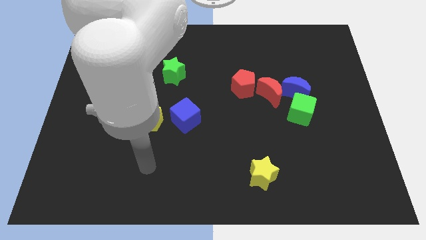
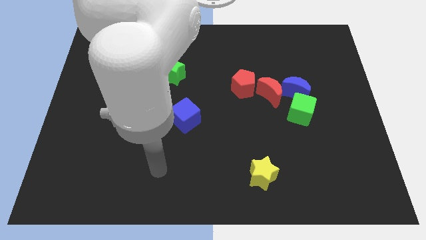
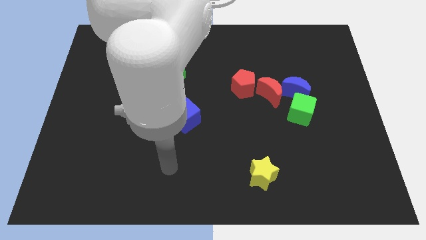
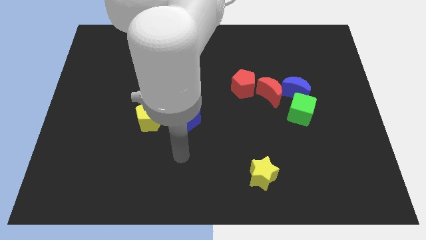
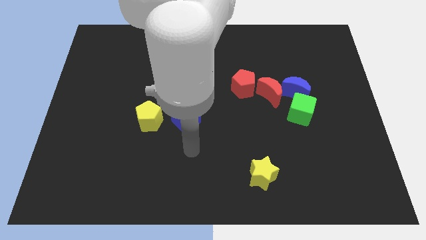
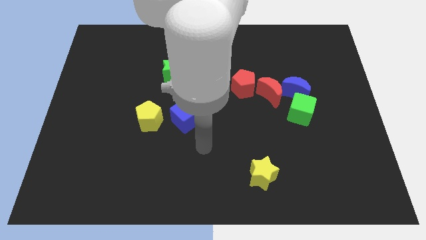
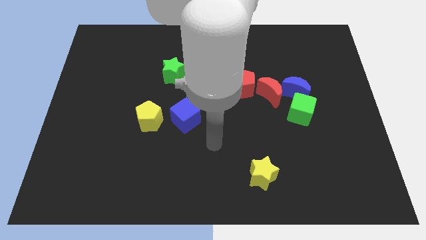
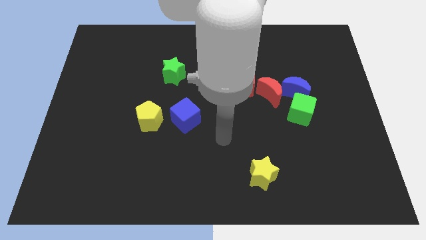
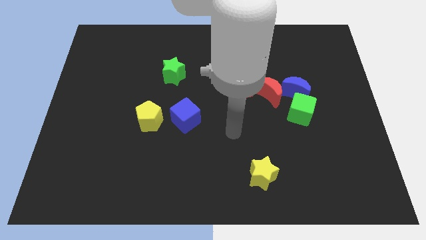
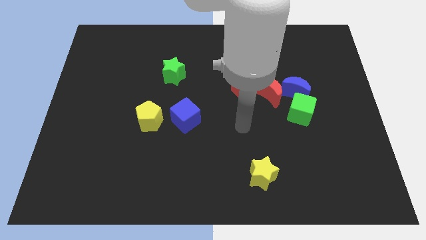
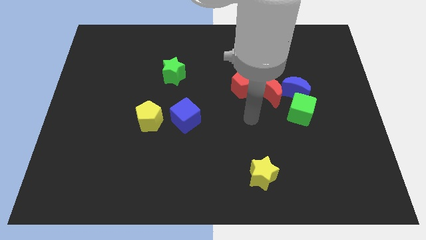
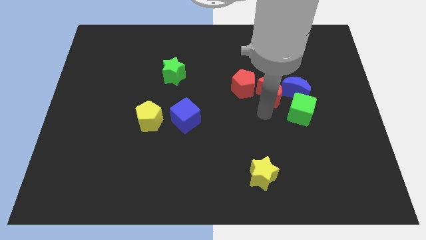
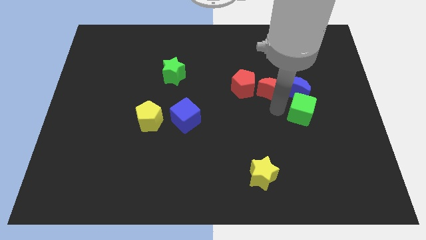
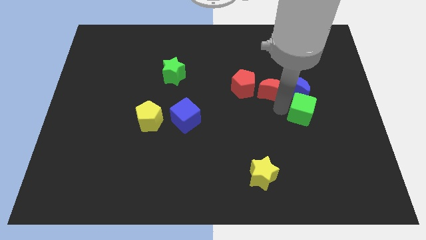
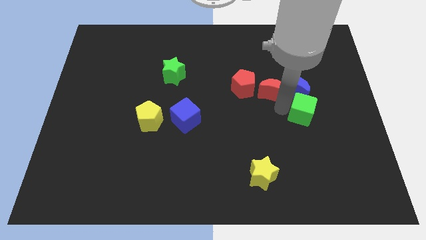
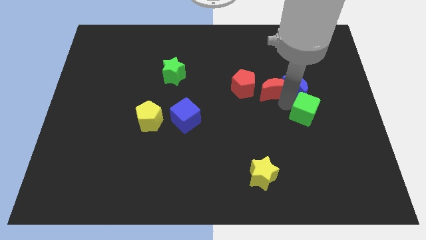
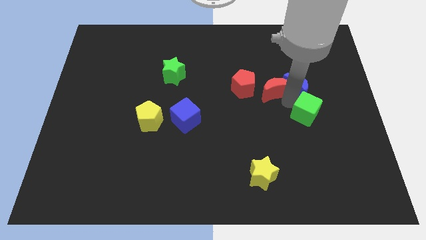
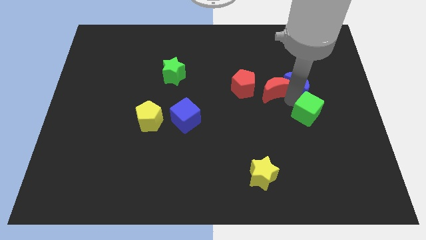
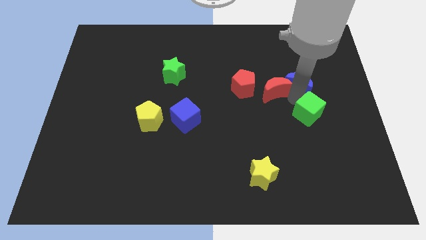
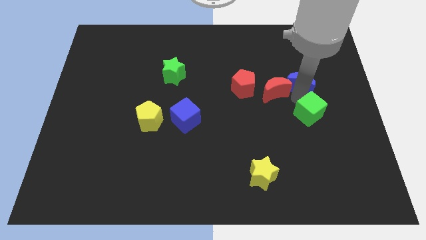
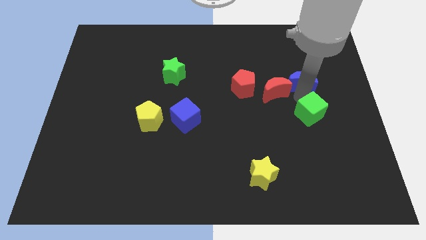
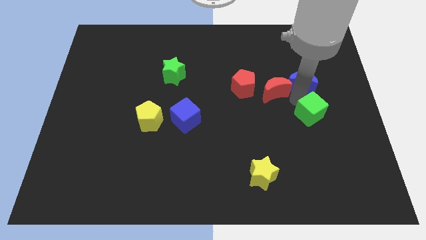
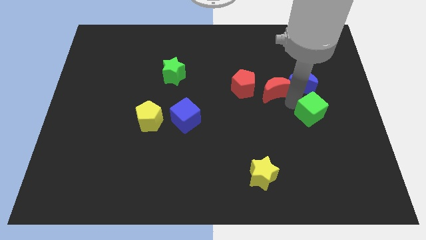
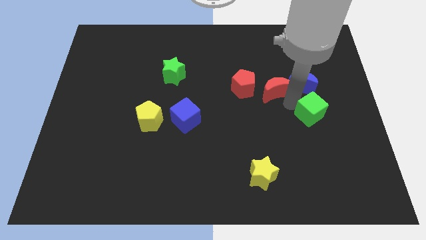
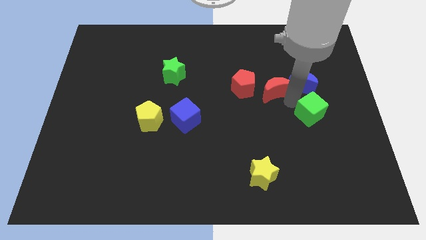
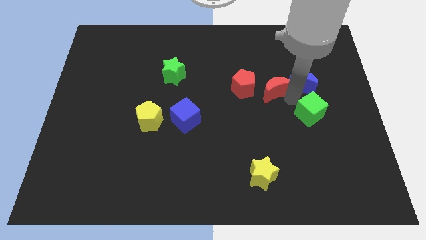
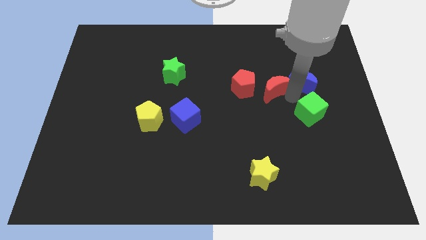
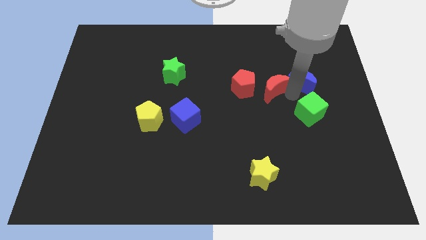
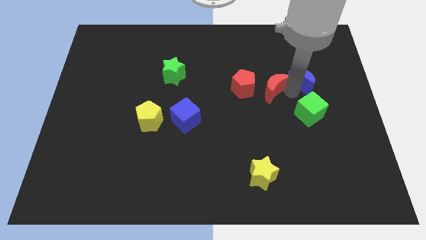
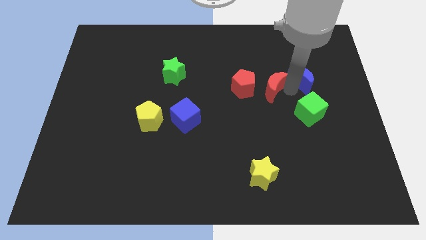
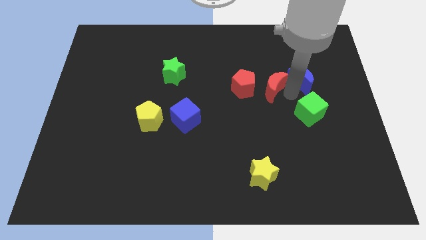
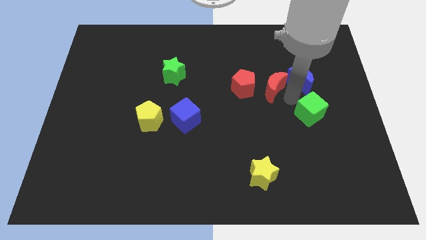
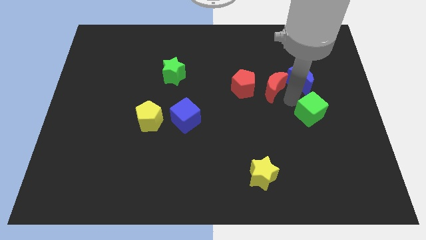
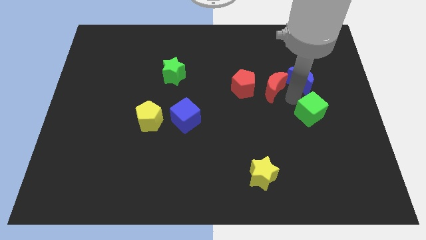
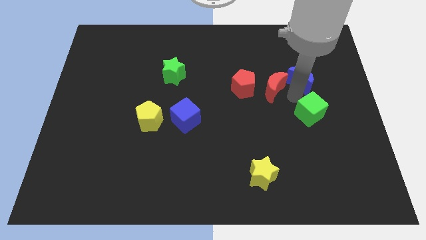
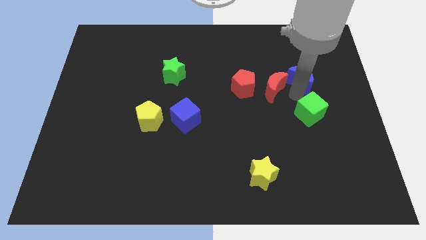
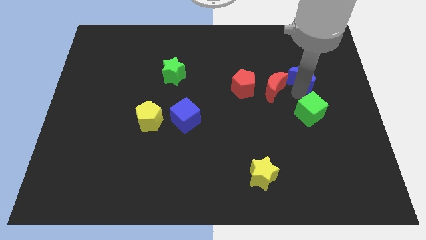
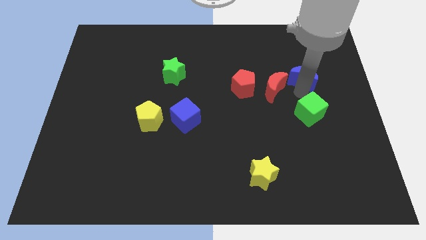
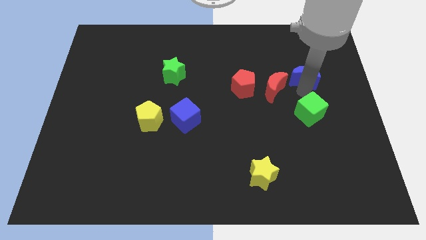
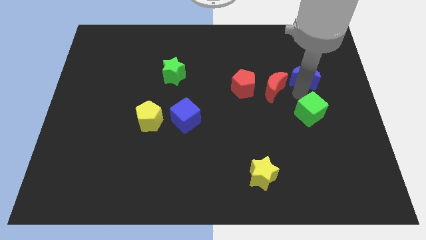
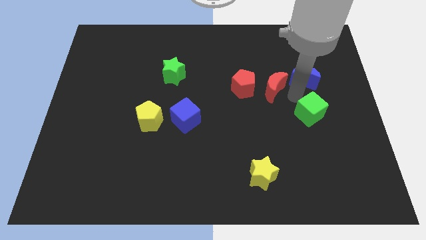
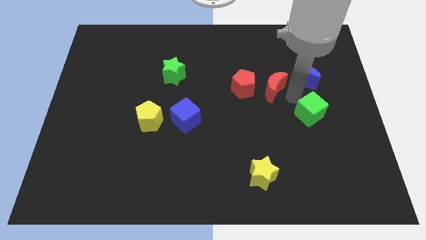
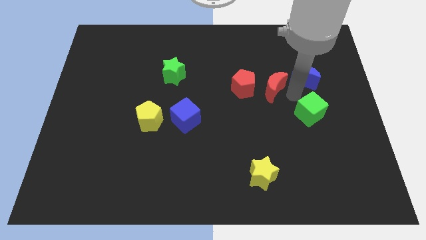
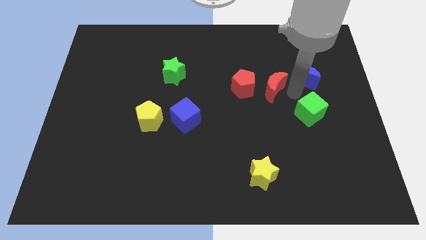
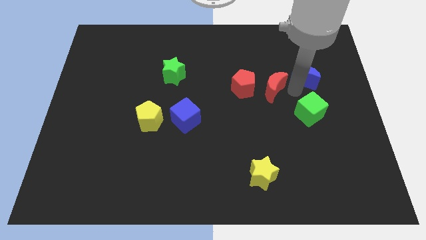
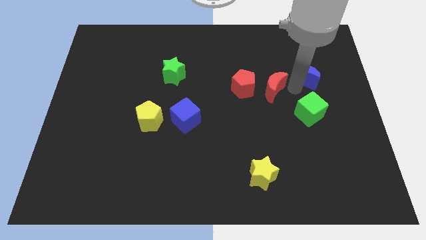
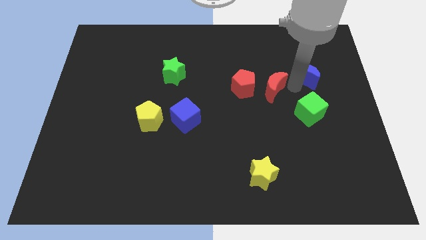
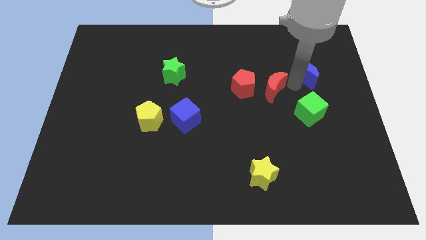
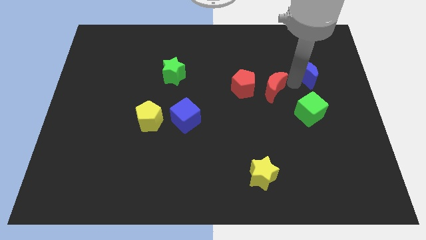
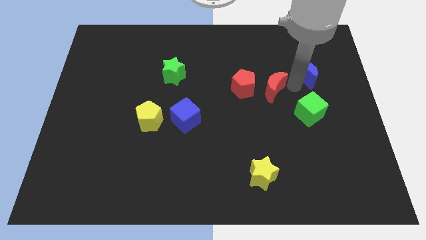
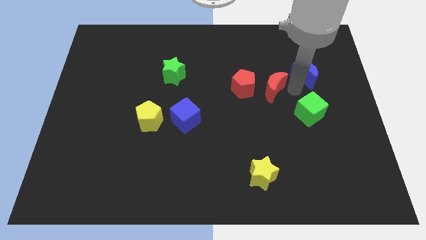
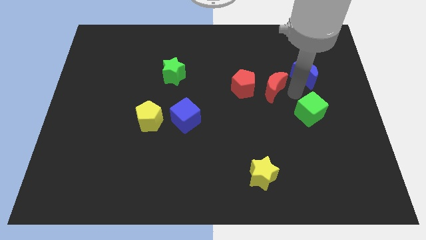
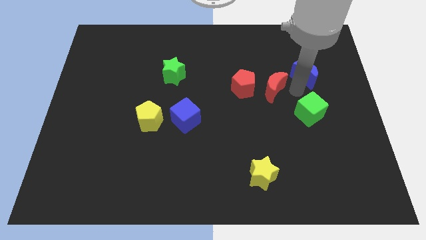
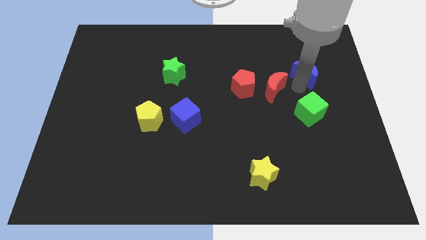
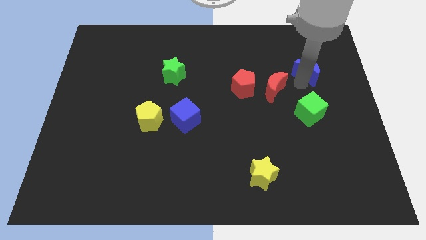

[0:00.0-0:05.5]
pull the blue moon apart from the red moon and green cube

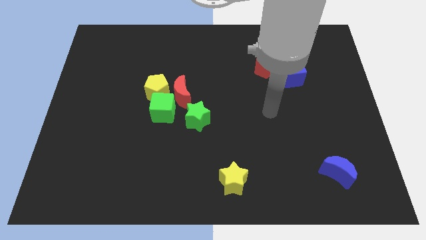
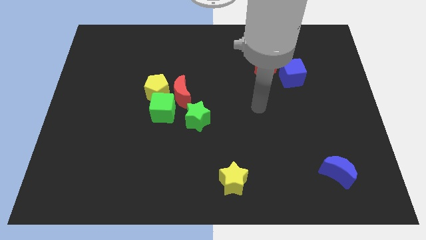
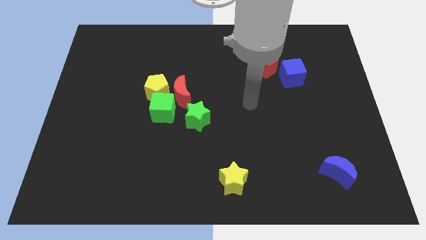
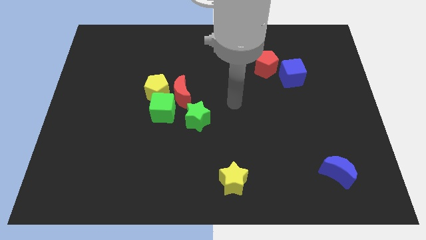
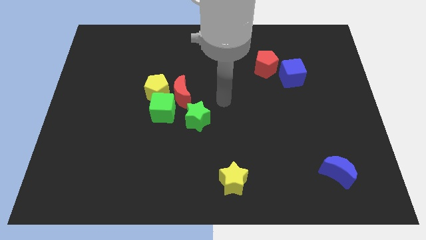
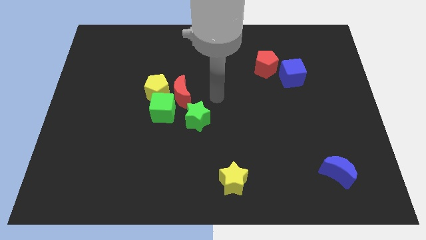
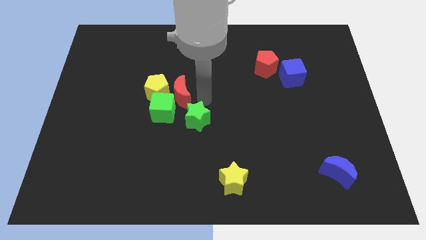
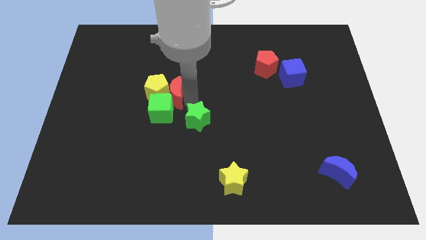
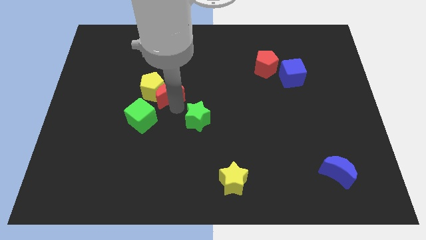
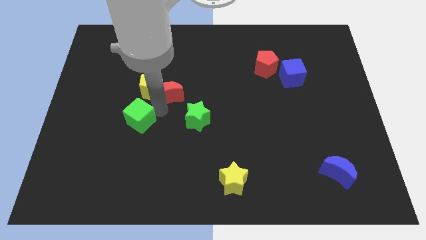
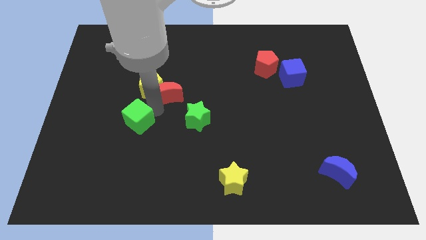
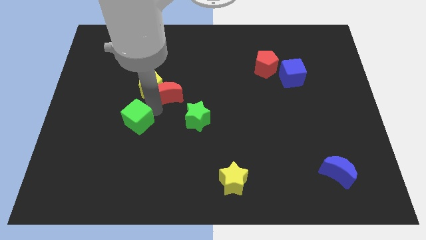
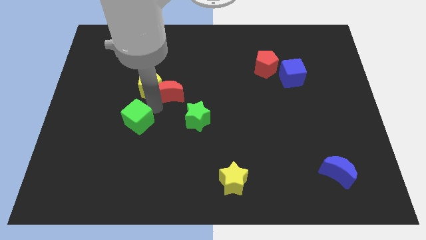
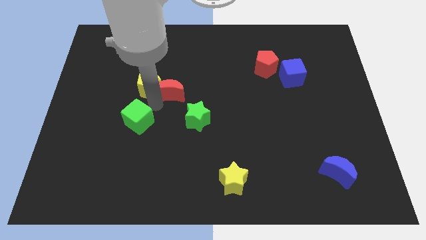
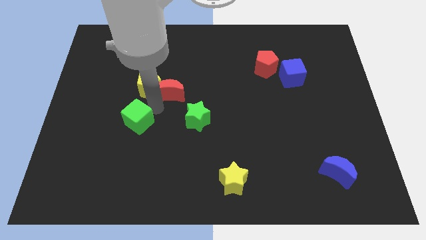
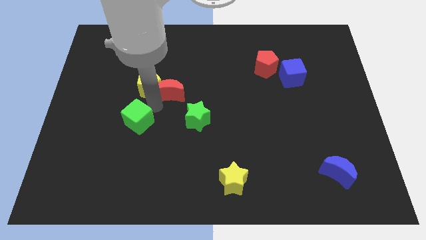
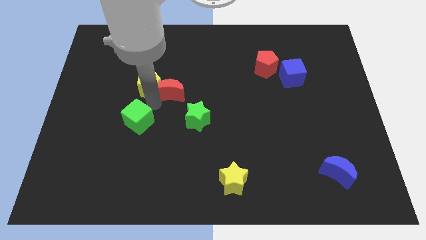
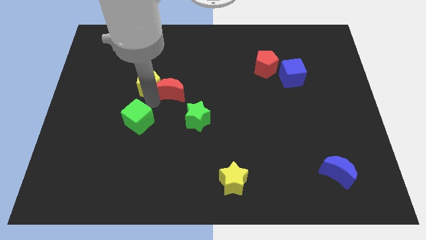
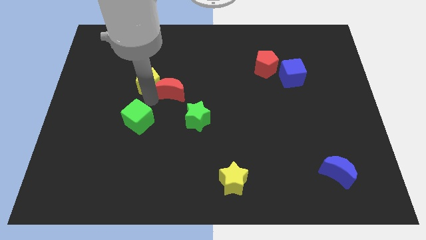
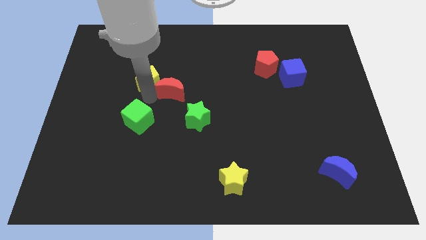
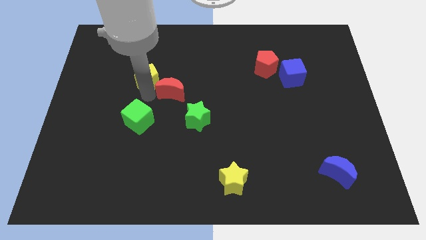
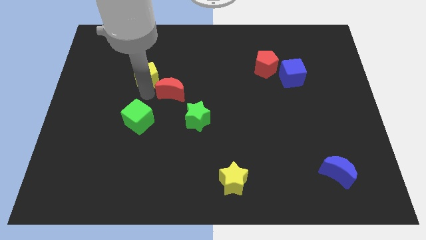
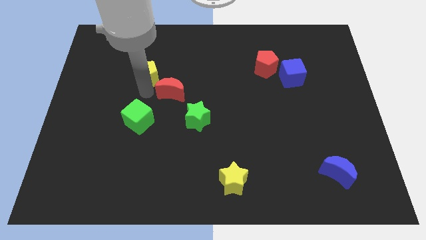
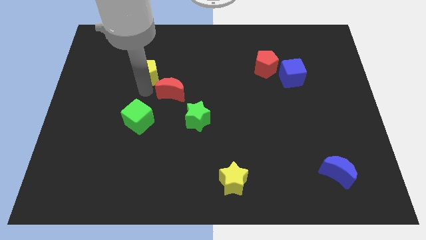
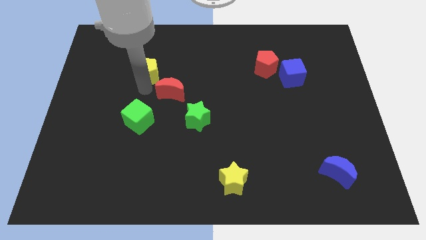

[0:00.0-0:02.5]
move the yellow pentagon away from the red moon and green cube

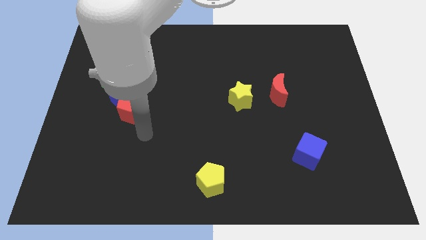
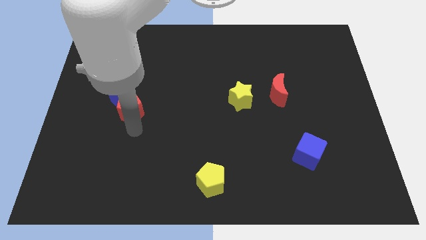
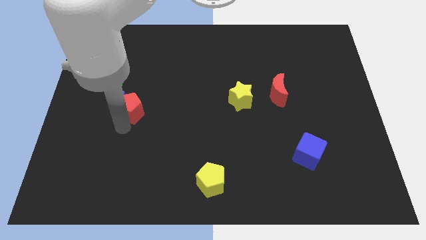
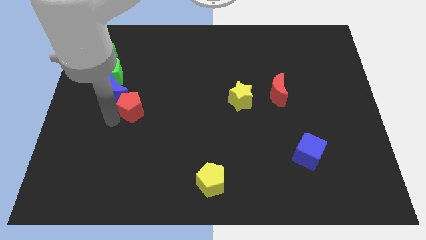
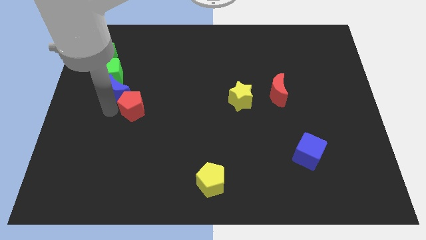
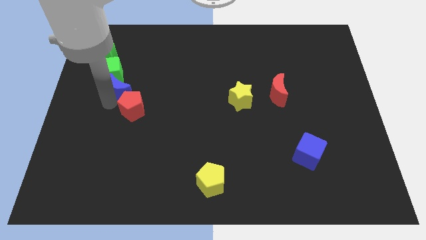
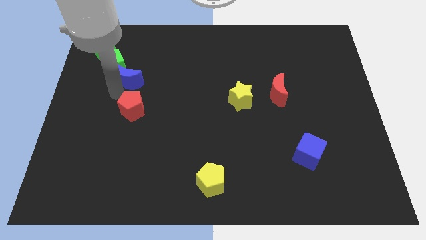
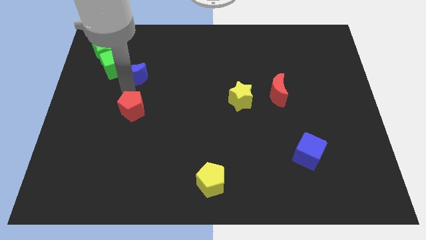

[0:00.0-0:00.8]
separate the red pentagon from the blue moon

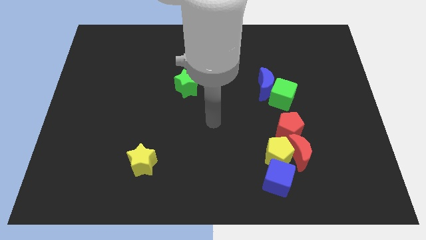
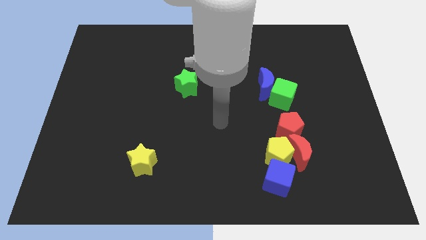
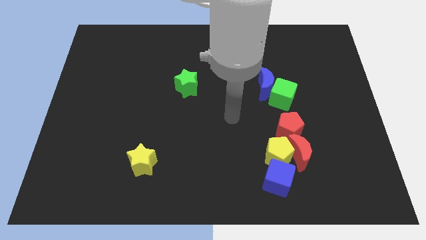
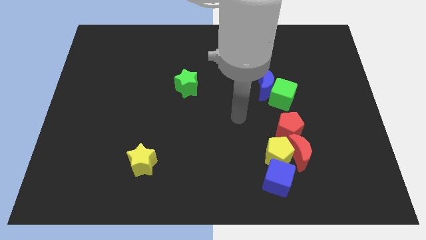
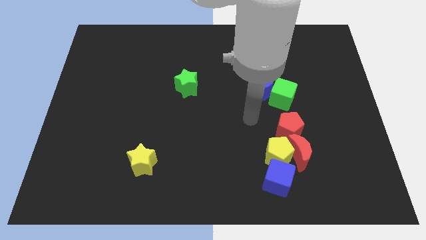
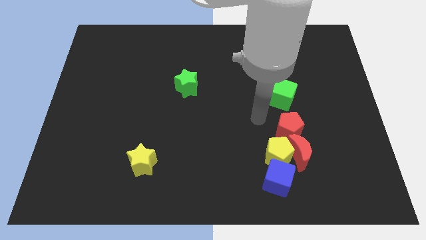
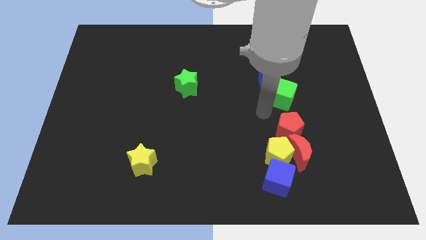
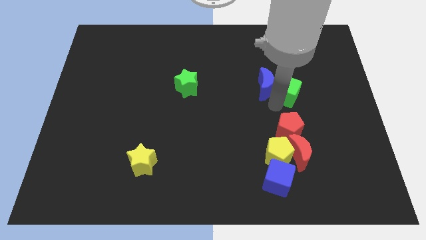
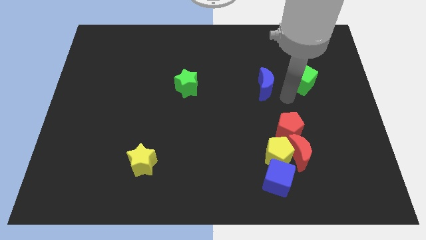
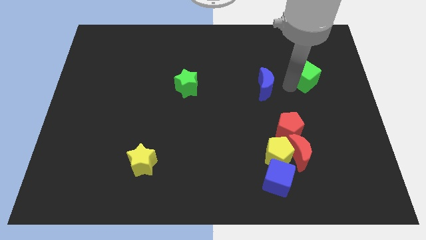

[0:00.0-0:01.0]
move the blue moon away from the green cube
